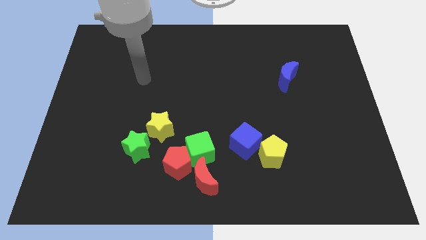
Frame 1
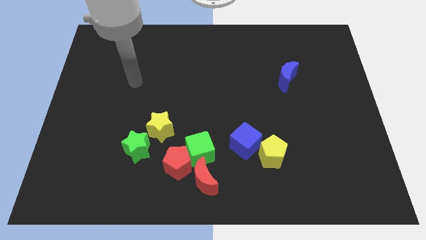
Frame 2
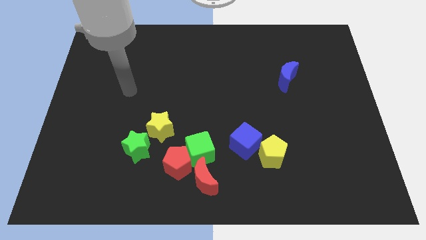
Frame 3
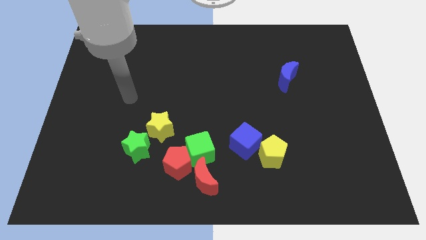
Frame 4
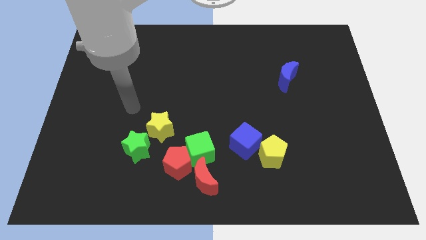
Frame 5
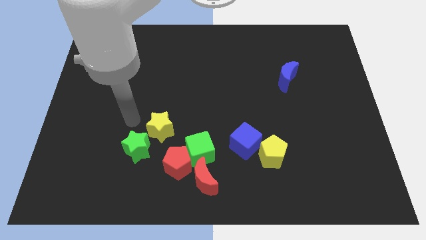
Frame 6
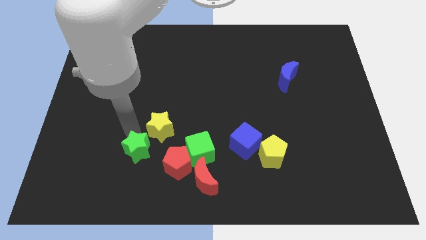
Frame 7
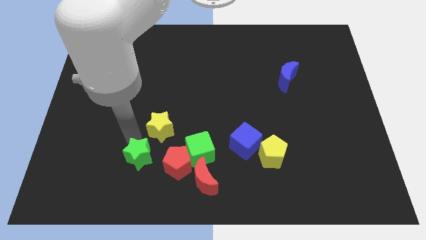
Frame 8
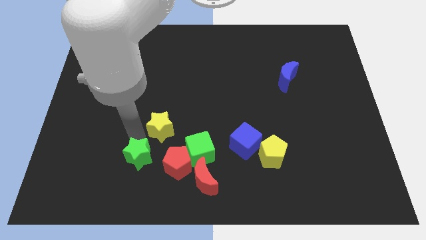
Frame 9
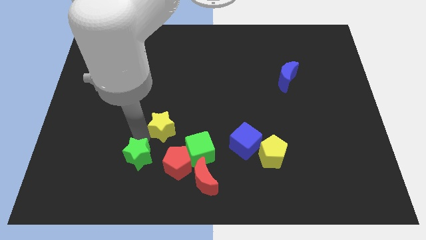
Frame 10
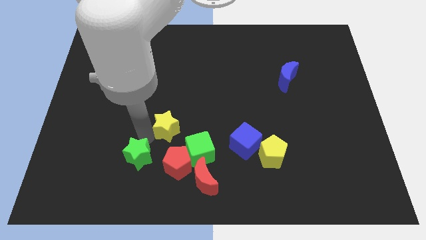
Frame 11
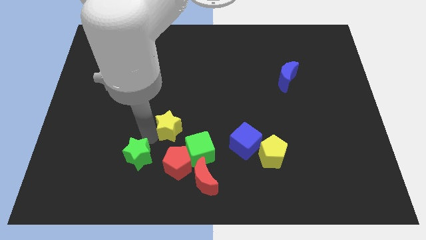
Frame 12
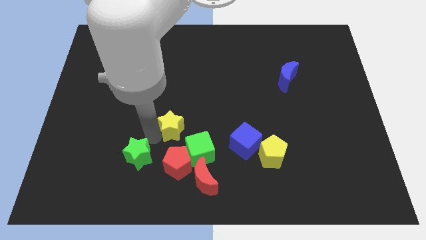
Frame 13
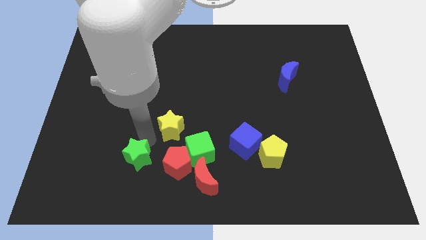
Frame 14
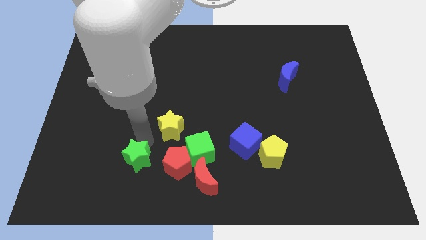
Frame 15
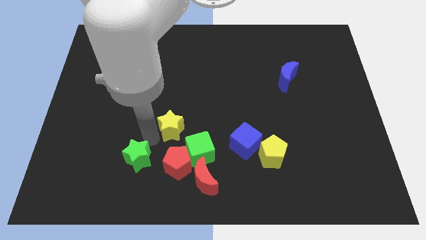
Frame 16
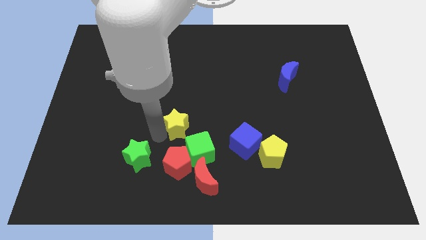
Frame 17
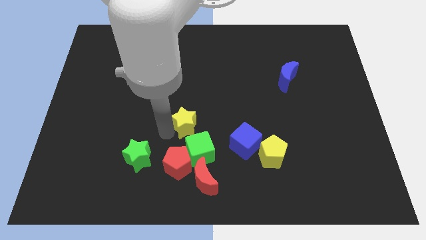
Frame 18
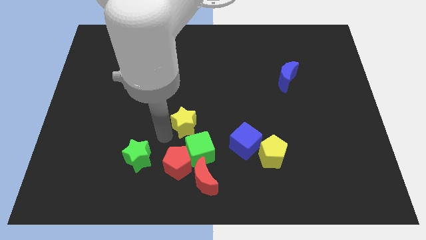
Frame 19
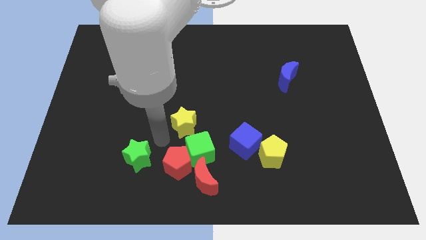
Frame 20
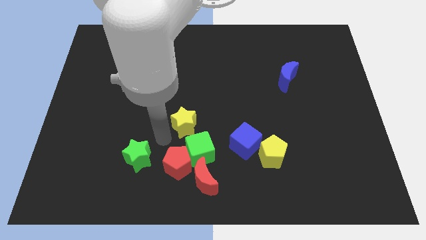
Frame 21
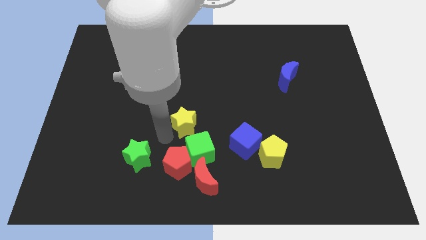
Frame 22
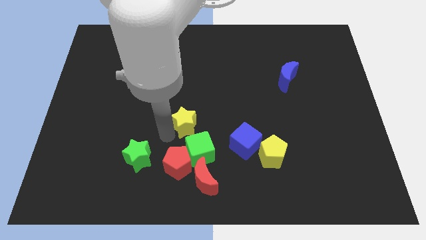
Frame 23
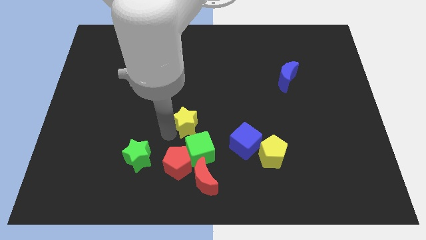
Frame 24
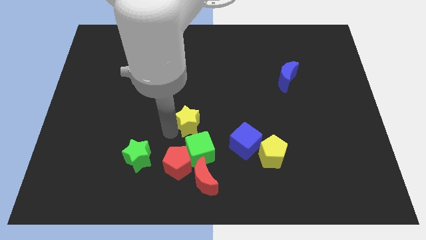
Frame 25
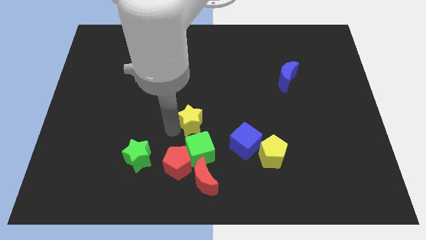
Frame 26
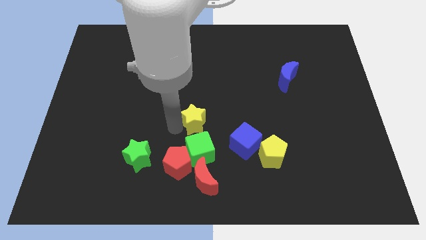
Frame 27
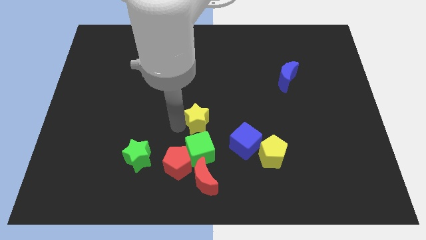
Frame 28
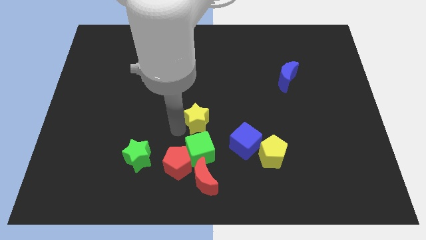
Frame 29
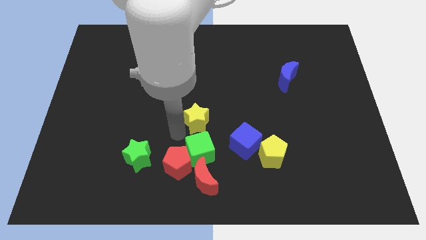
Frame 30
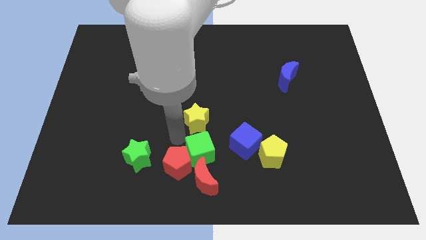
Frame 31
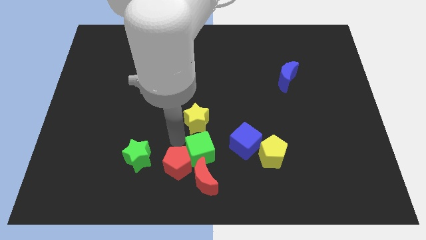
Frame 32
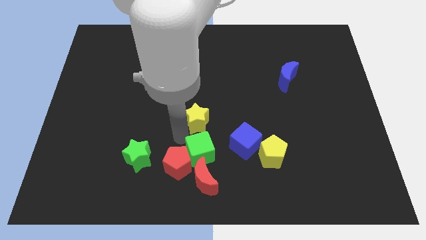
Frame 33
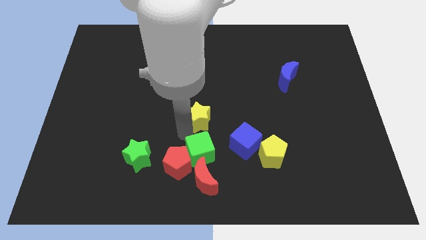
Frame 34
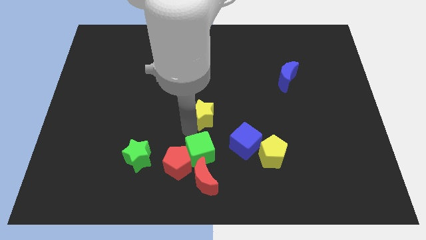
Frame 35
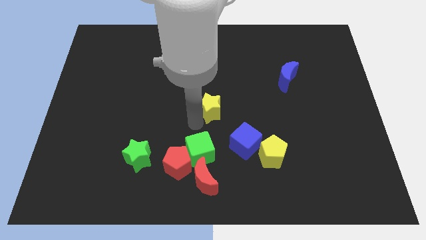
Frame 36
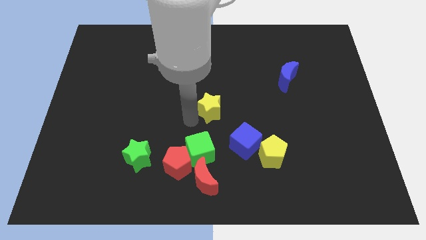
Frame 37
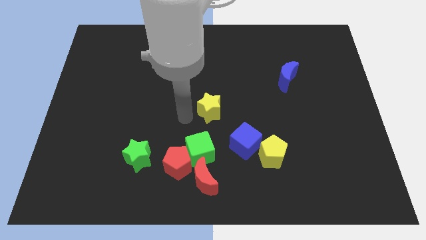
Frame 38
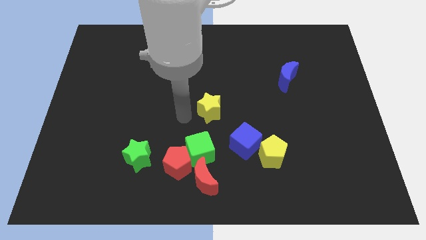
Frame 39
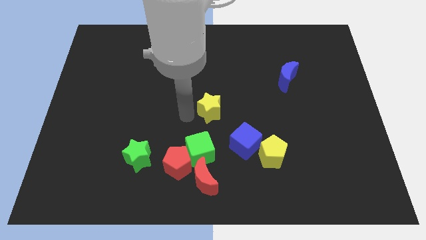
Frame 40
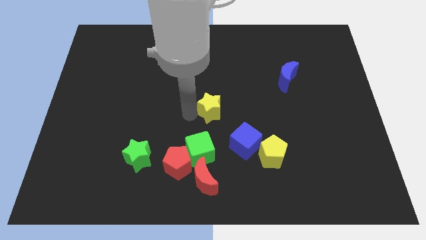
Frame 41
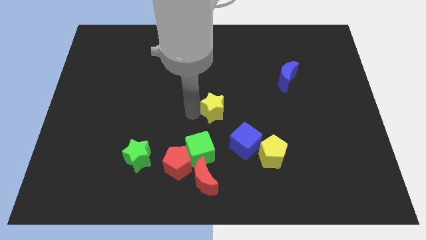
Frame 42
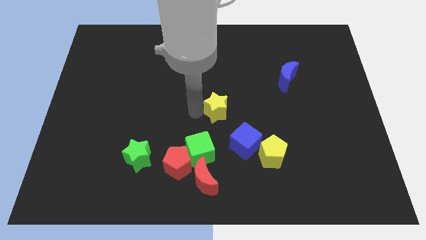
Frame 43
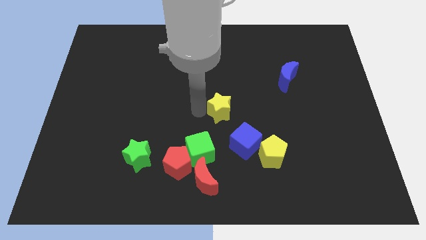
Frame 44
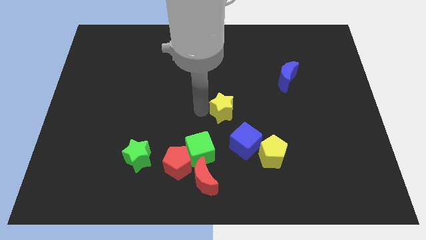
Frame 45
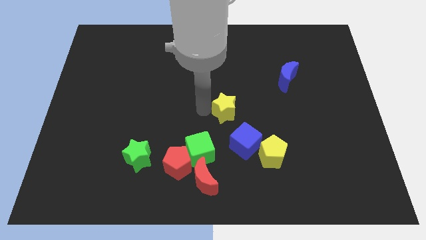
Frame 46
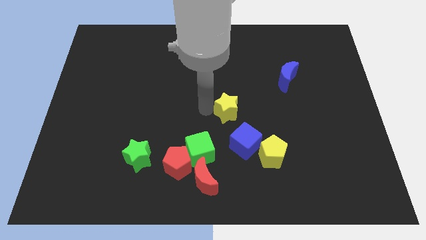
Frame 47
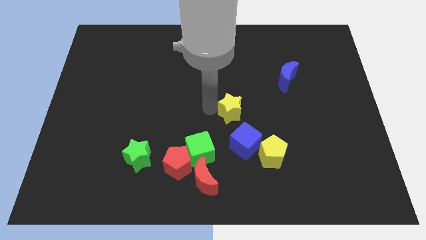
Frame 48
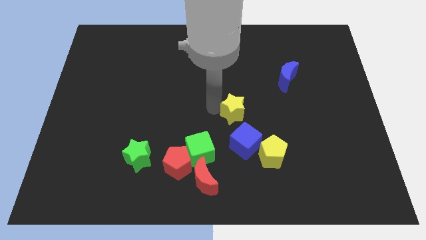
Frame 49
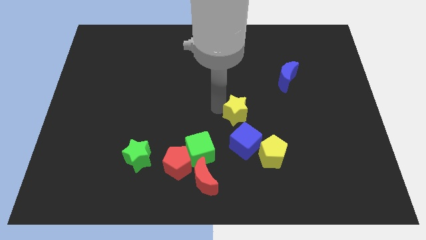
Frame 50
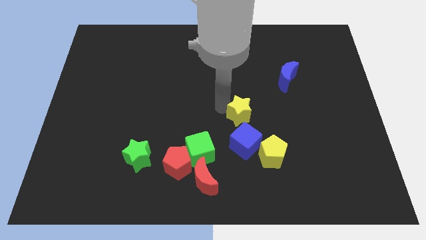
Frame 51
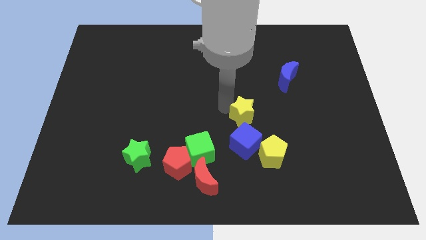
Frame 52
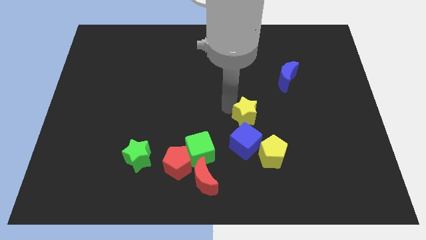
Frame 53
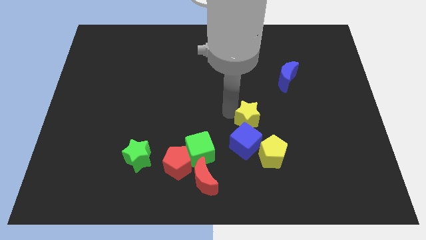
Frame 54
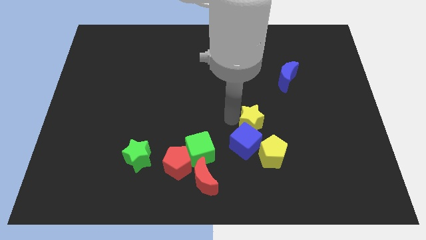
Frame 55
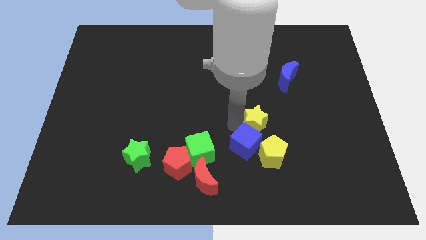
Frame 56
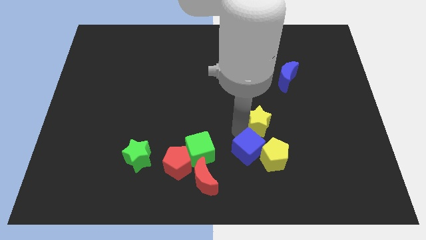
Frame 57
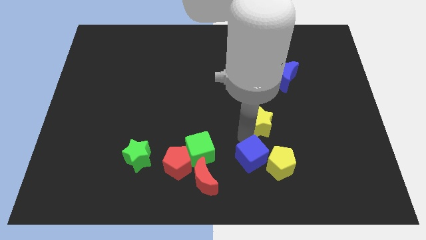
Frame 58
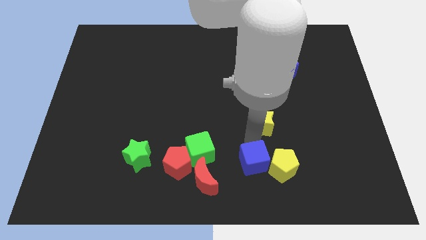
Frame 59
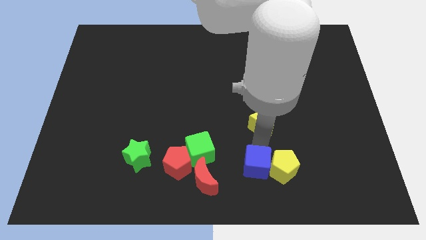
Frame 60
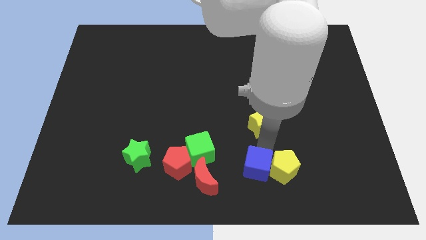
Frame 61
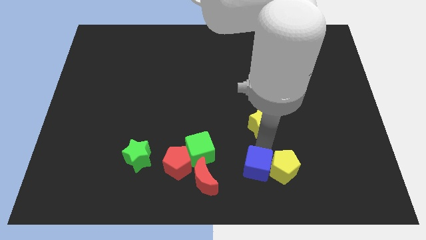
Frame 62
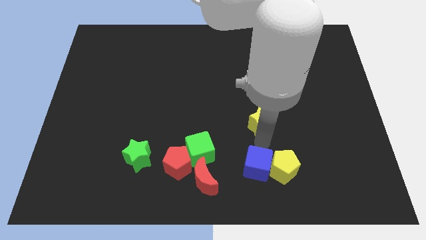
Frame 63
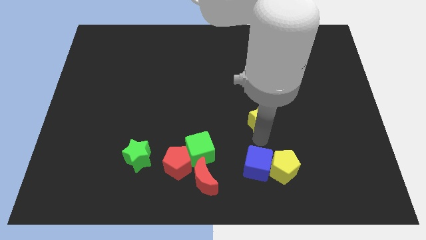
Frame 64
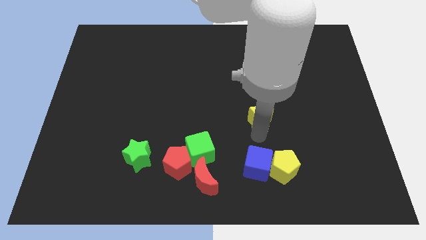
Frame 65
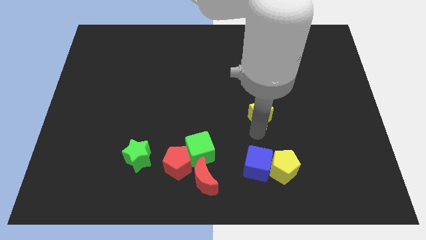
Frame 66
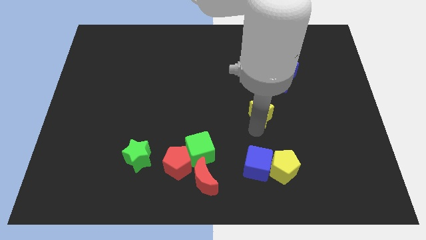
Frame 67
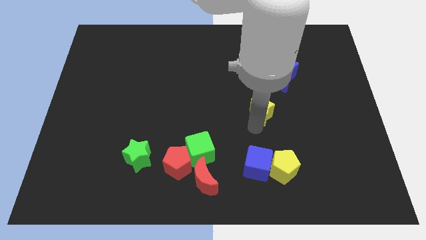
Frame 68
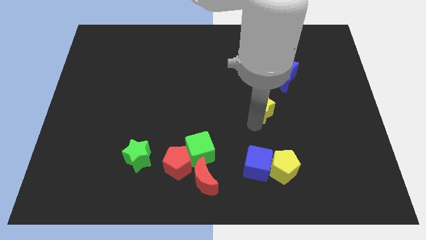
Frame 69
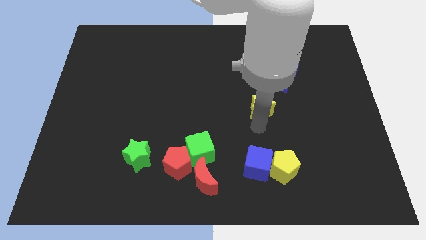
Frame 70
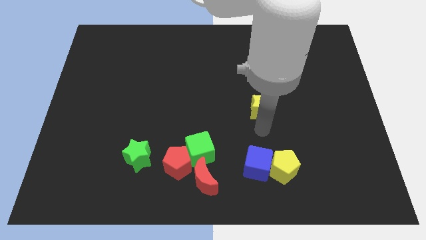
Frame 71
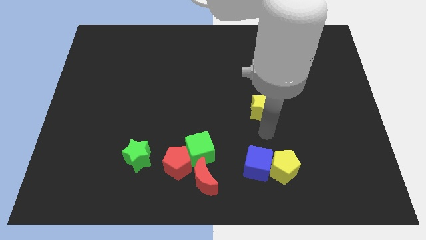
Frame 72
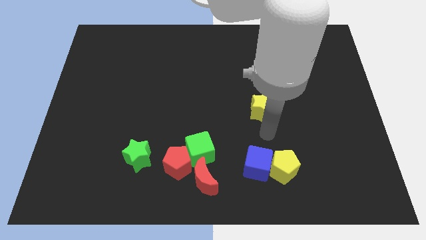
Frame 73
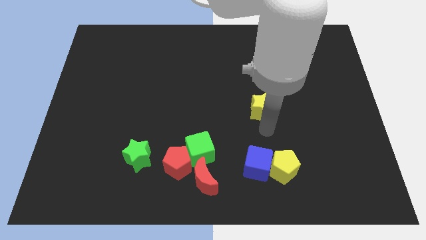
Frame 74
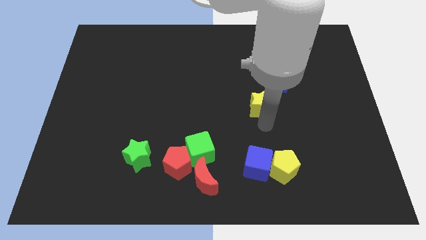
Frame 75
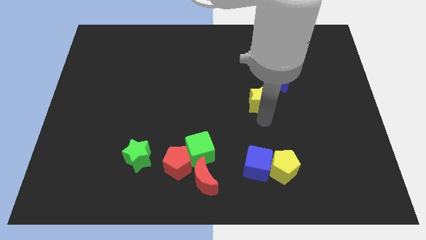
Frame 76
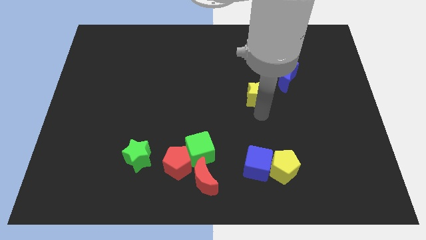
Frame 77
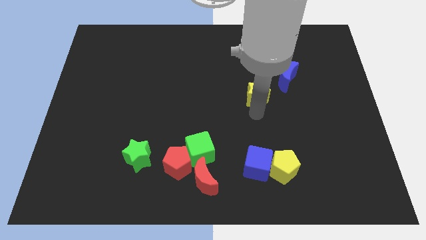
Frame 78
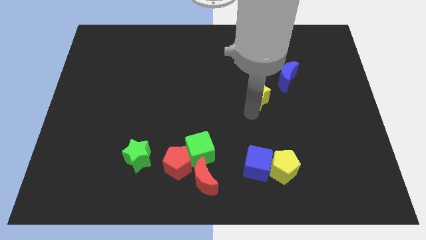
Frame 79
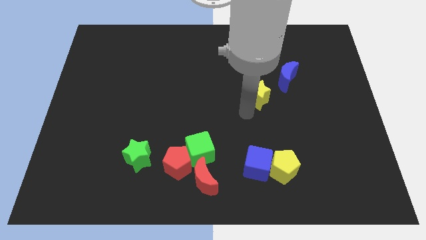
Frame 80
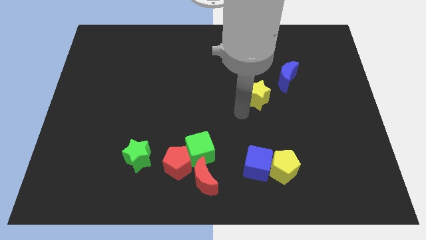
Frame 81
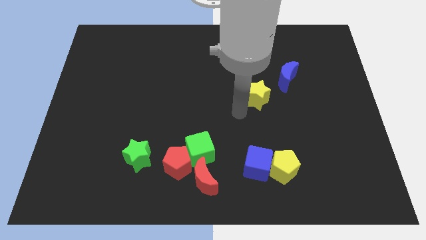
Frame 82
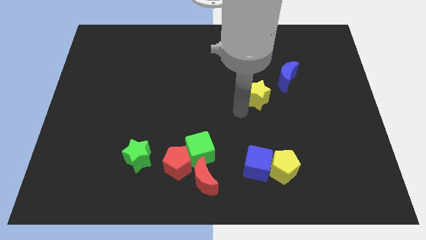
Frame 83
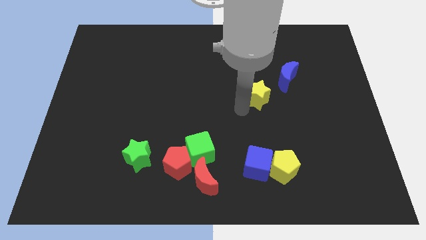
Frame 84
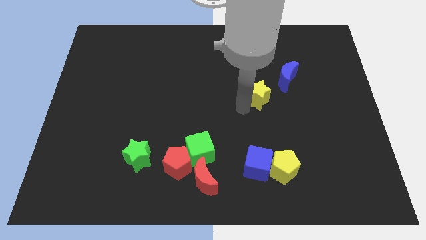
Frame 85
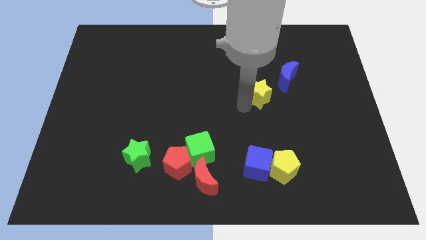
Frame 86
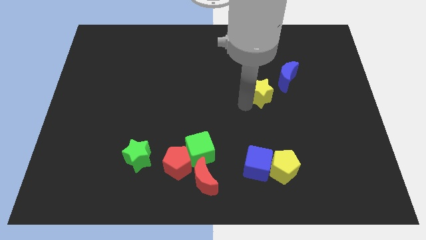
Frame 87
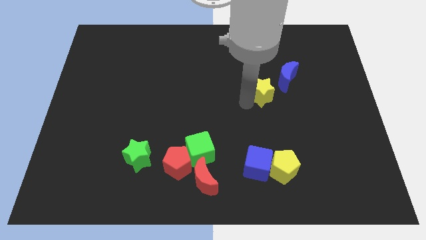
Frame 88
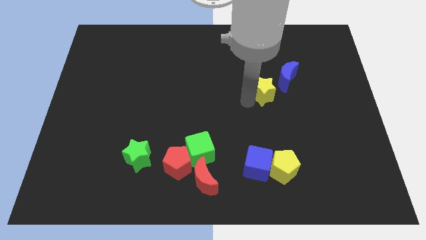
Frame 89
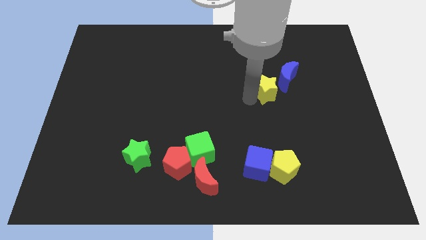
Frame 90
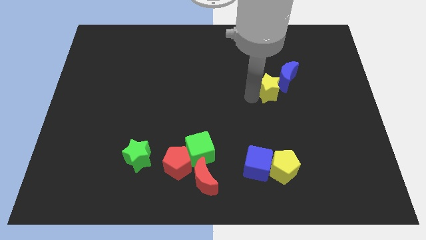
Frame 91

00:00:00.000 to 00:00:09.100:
push the yellow star next to the blue moon
